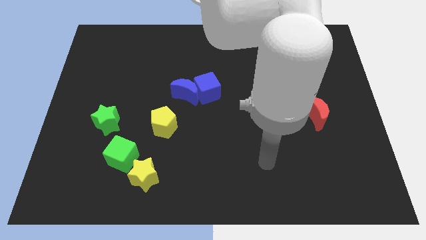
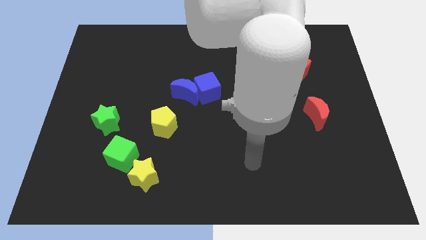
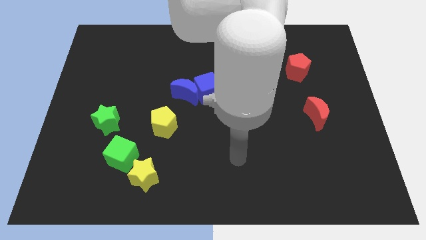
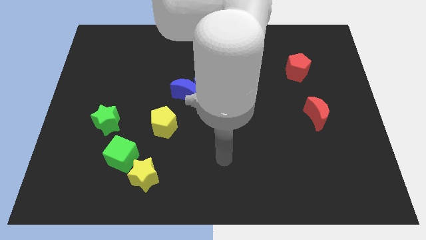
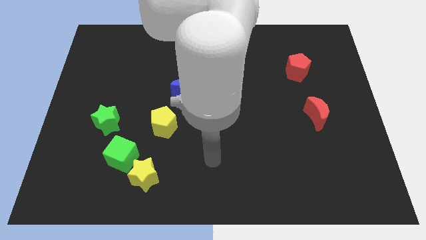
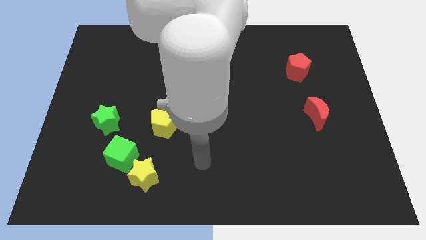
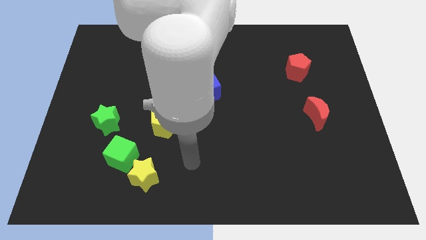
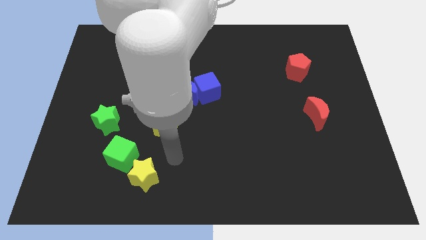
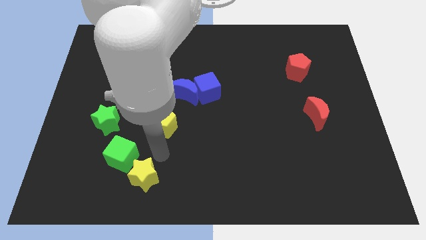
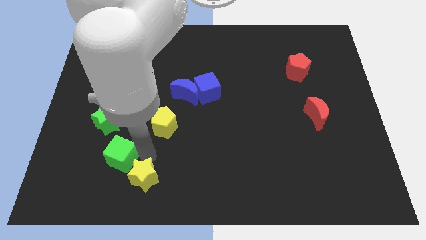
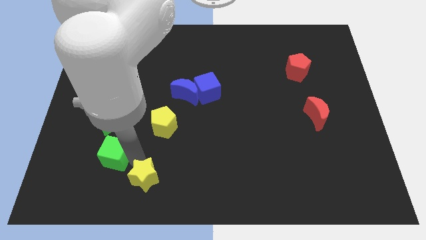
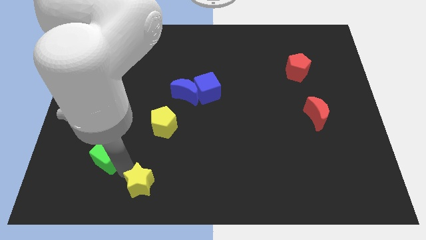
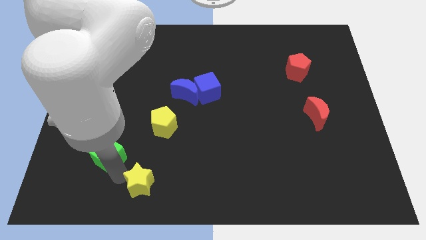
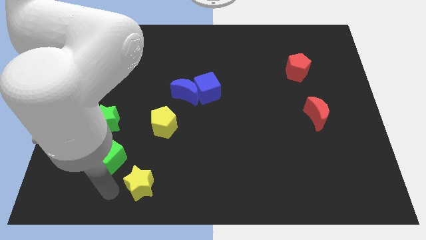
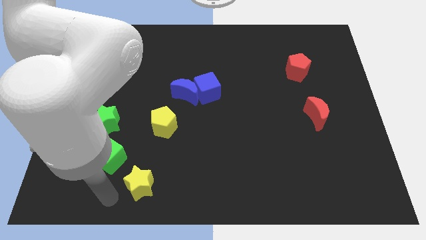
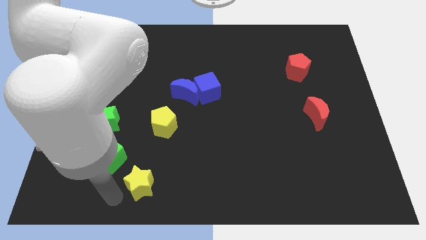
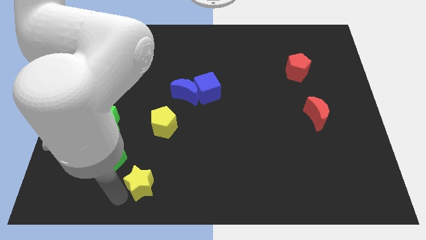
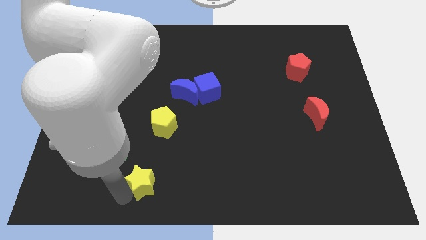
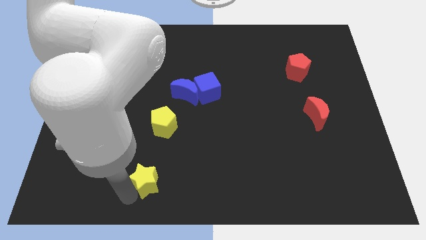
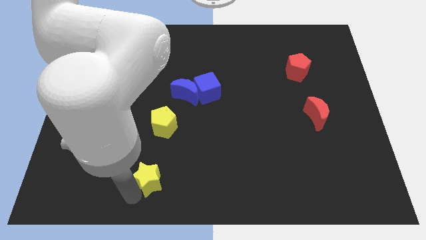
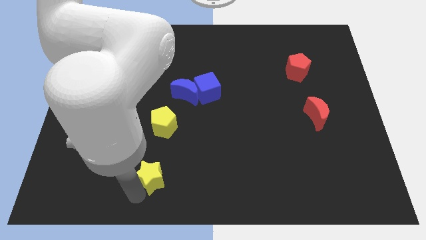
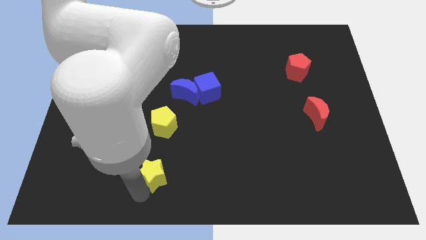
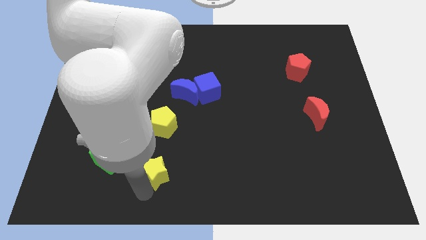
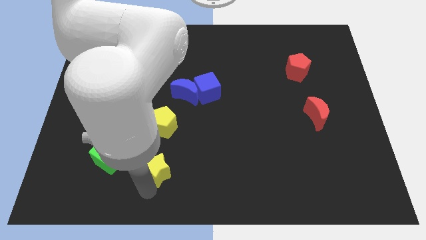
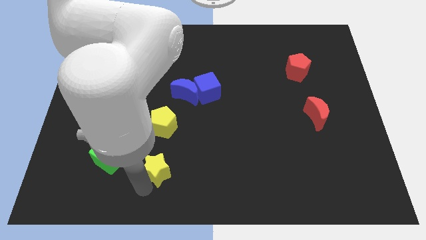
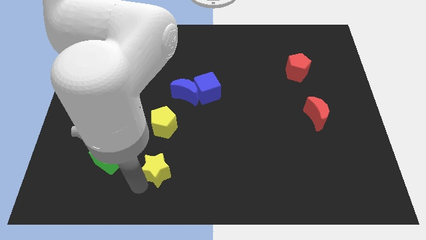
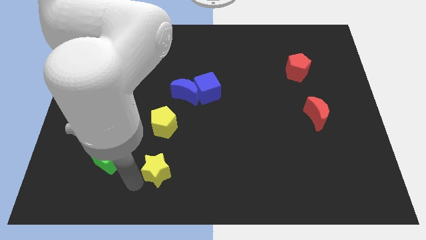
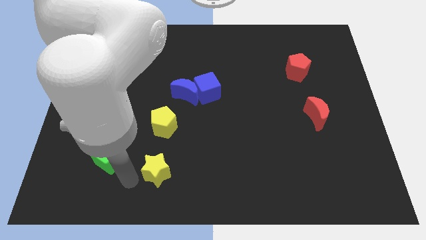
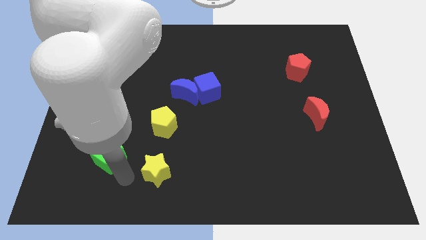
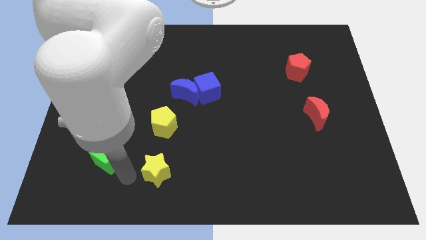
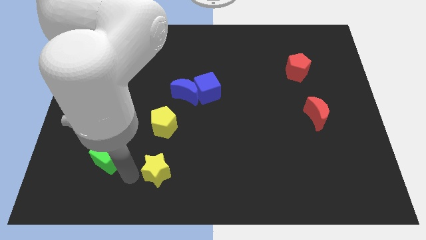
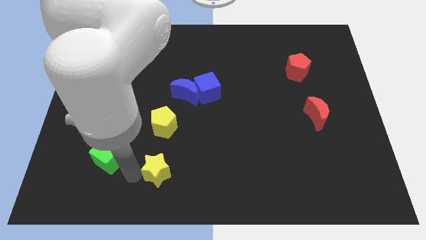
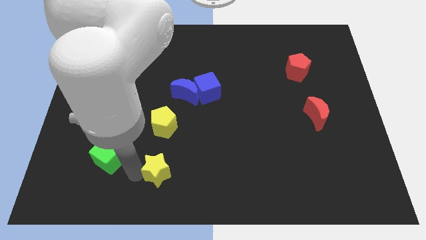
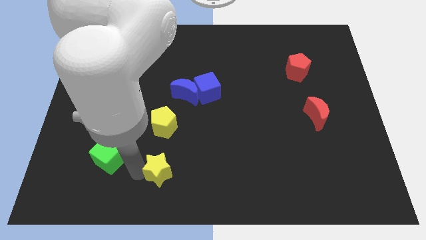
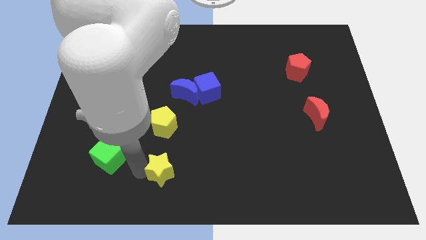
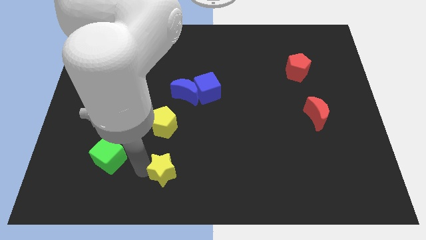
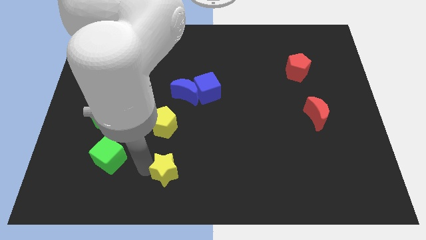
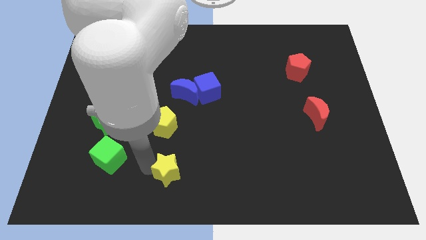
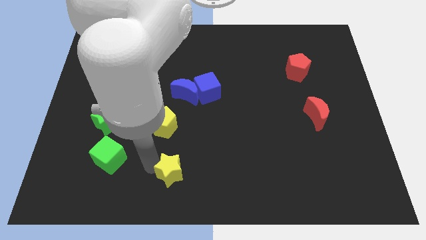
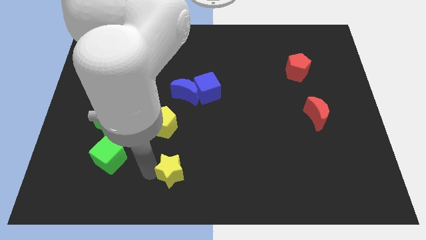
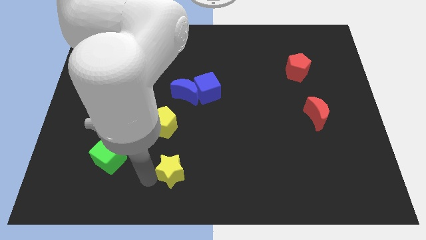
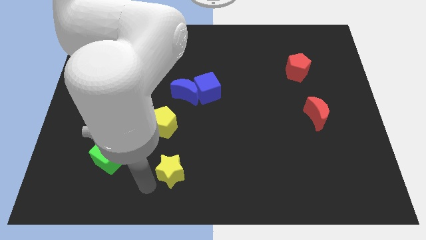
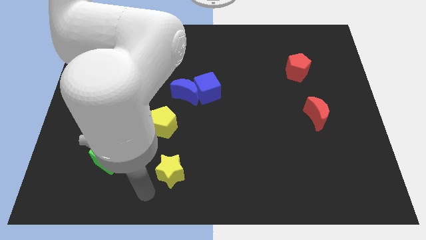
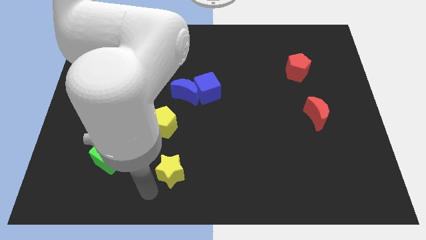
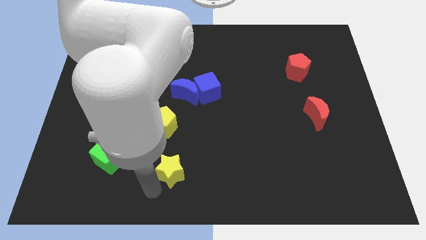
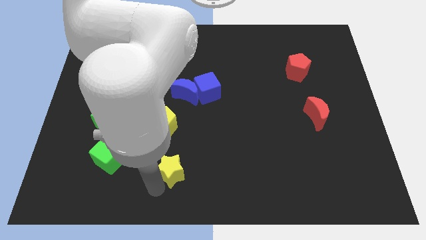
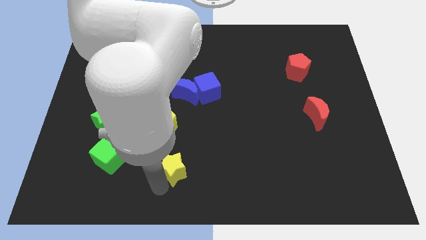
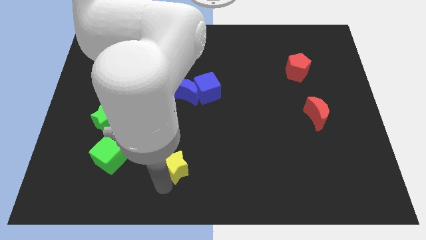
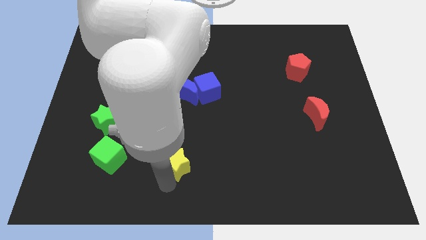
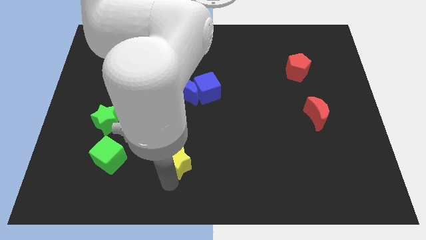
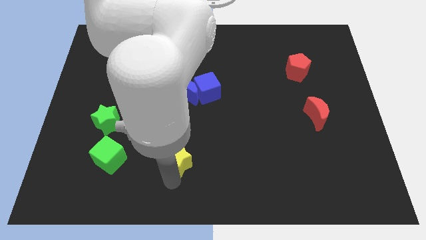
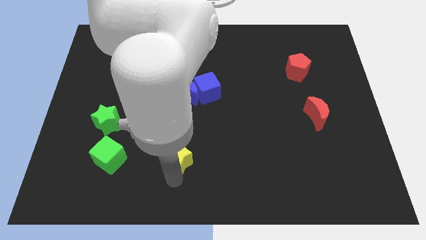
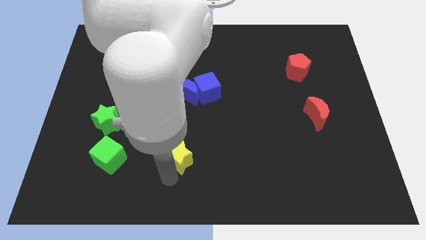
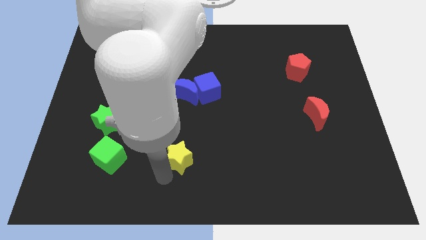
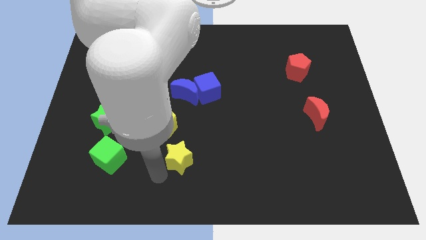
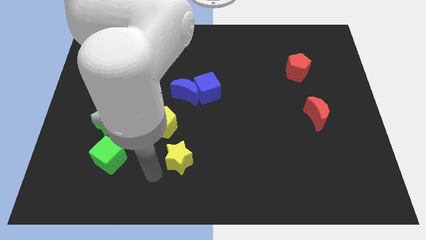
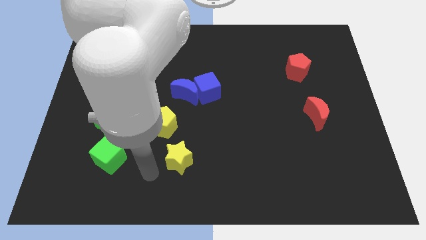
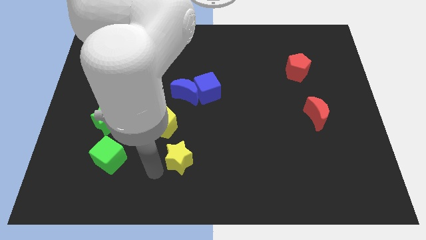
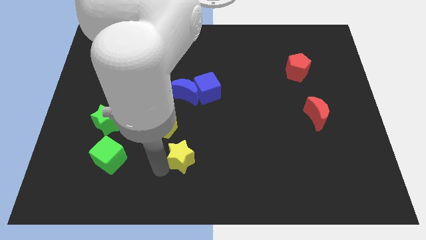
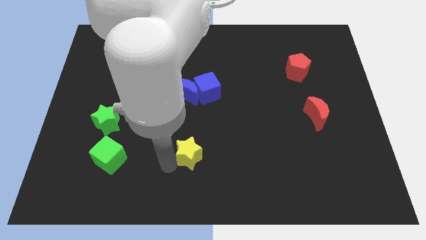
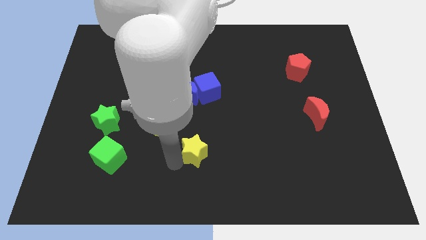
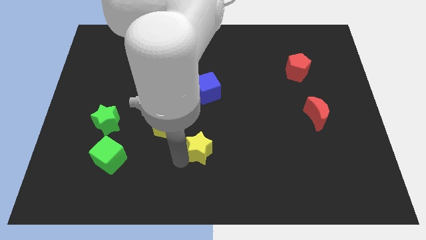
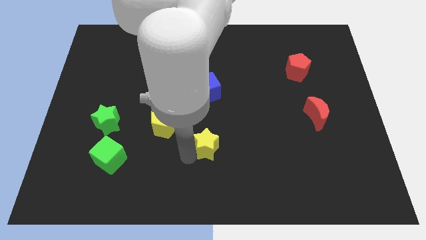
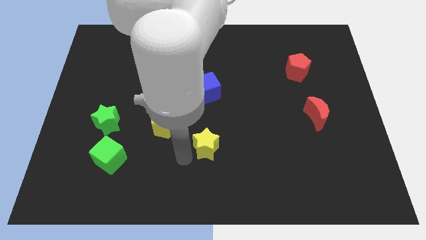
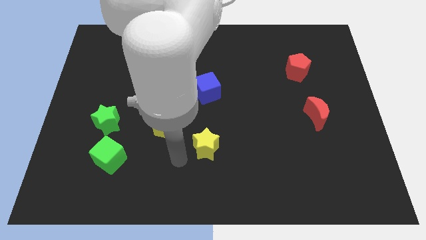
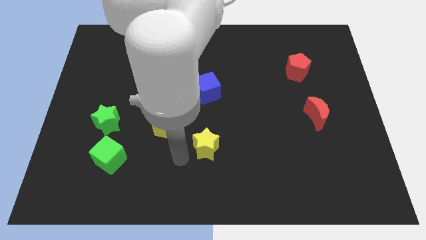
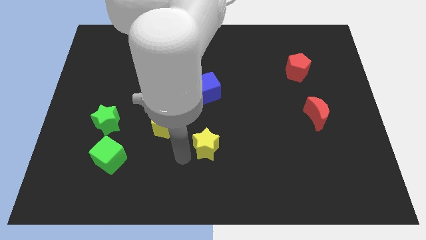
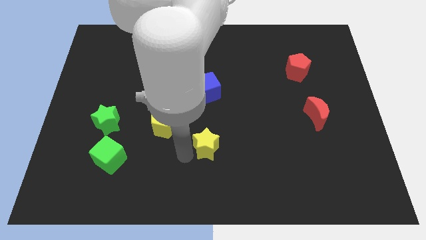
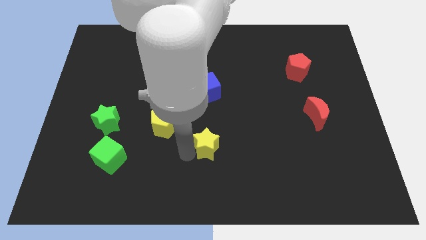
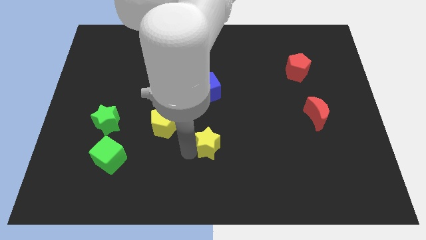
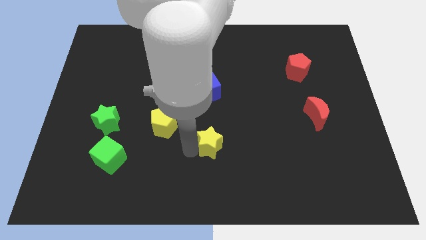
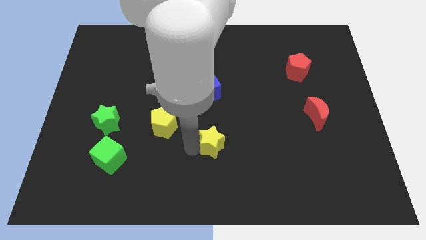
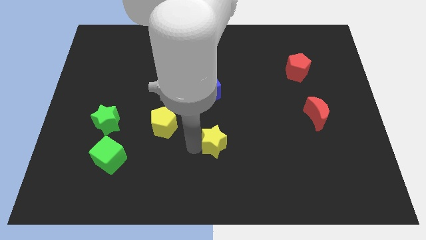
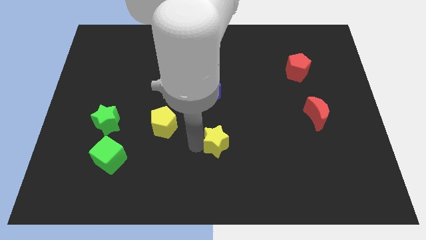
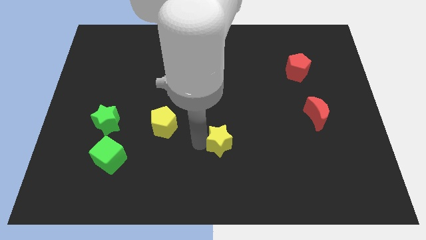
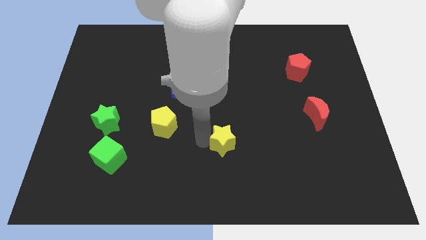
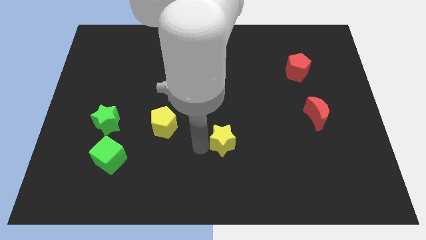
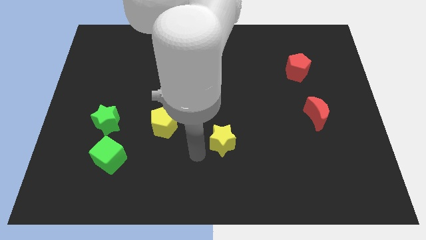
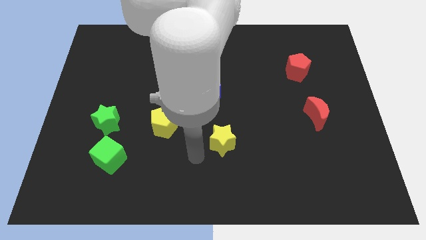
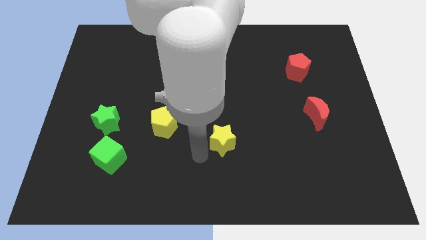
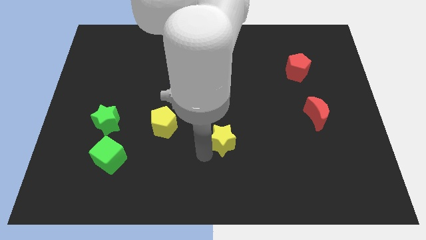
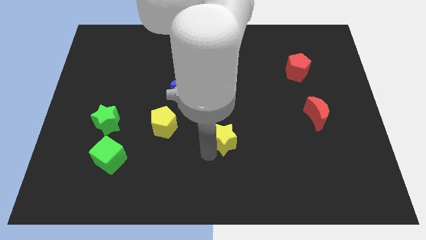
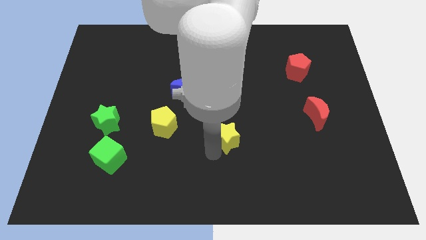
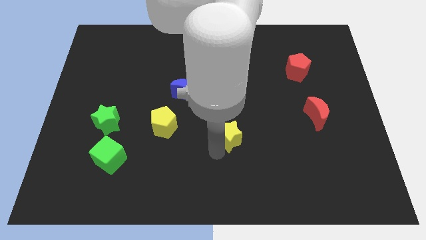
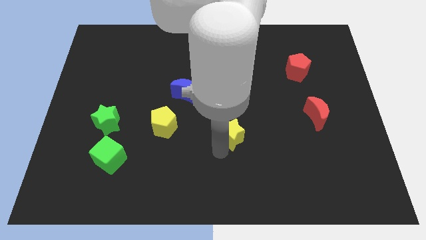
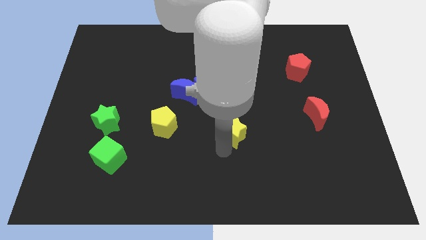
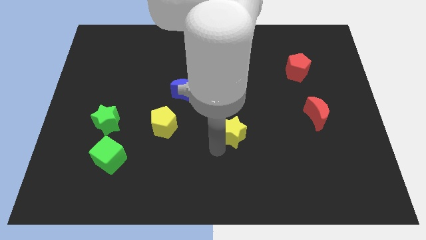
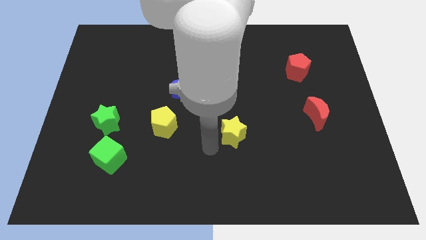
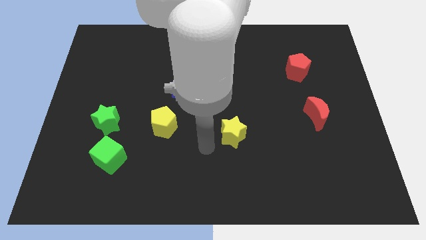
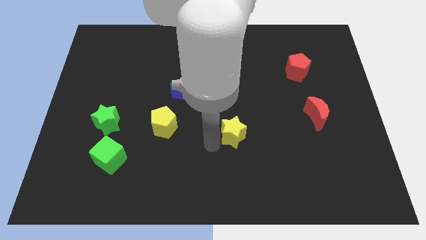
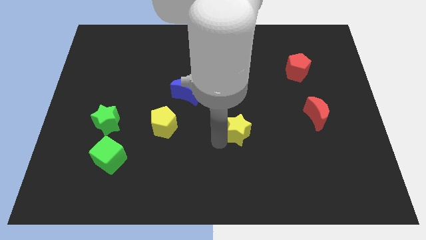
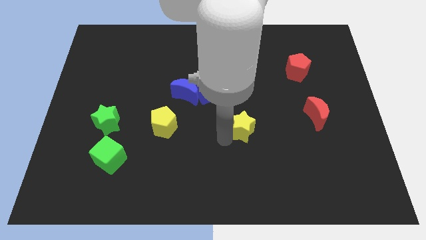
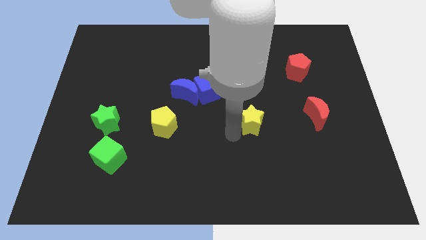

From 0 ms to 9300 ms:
push the yellow star to the left of the red moon
